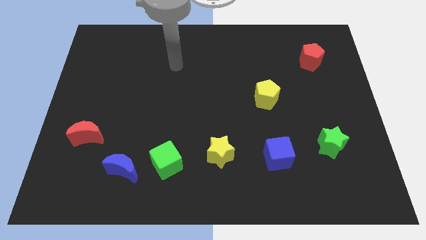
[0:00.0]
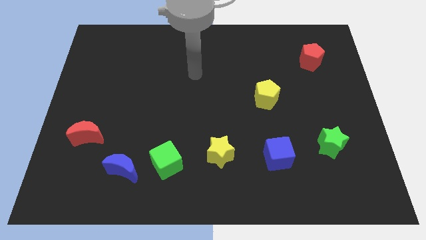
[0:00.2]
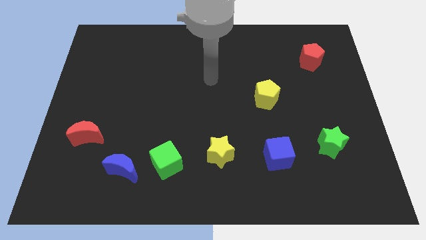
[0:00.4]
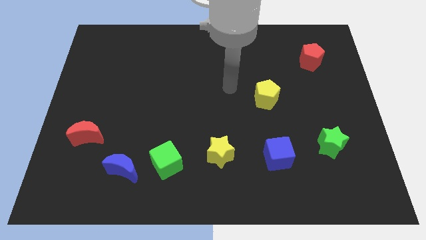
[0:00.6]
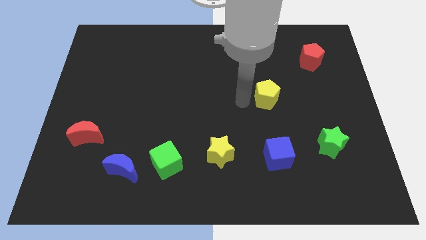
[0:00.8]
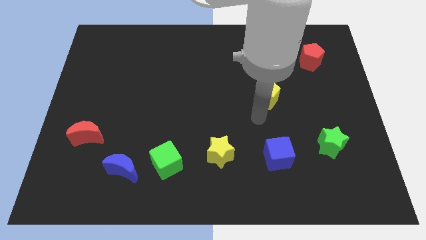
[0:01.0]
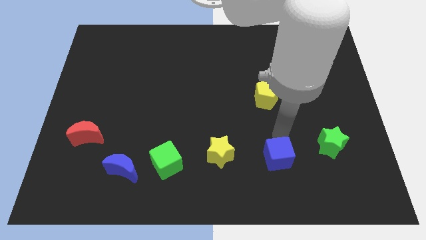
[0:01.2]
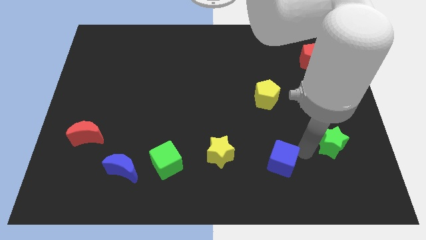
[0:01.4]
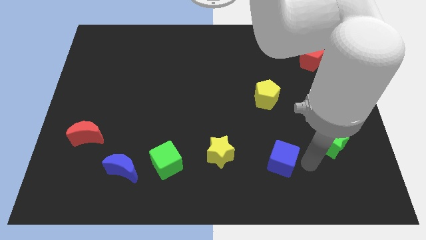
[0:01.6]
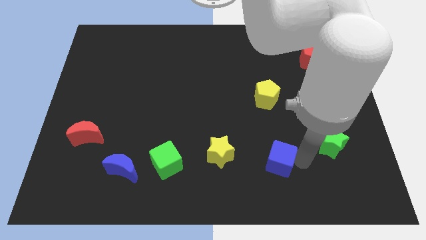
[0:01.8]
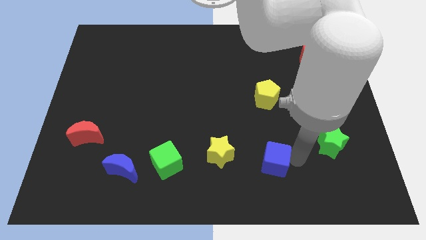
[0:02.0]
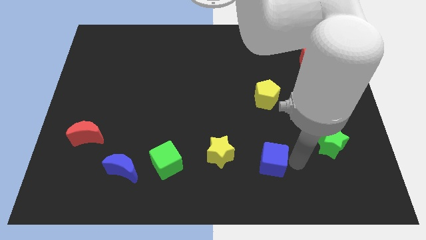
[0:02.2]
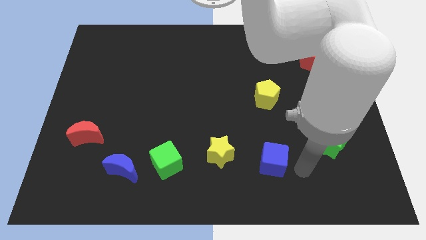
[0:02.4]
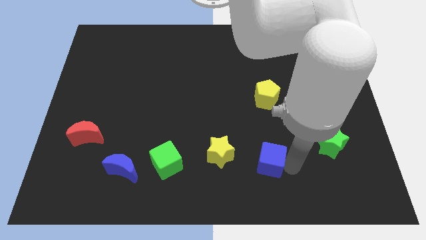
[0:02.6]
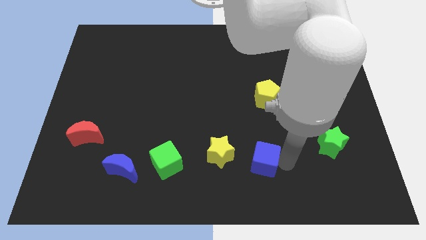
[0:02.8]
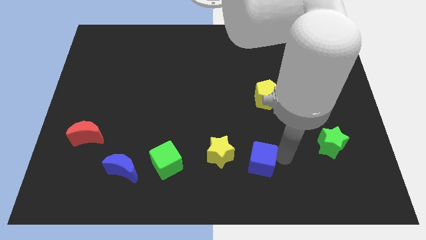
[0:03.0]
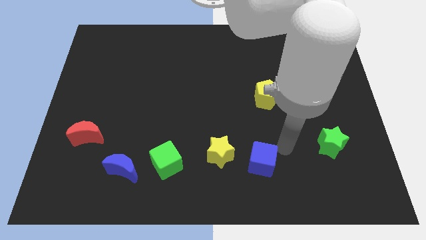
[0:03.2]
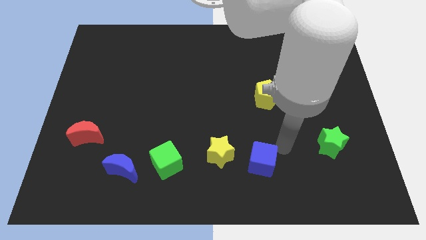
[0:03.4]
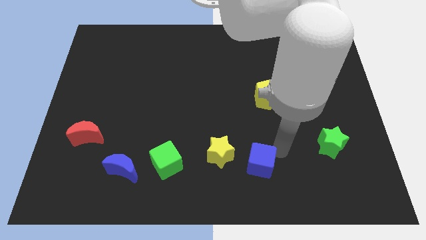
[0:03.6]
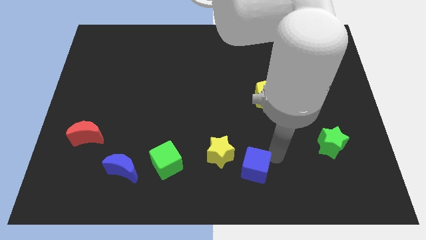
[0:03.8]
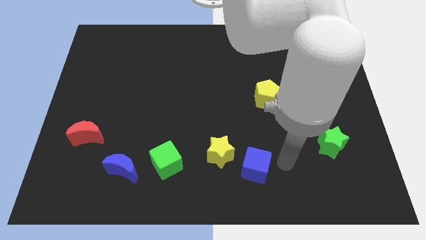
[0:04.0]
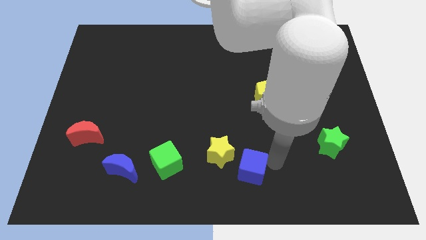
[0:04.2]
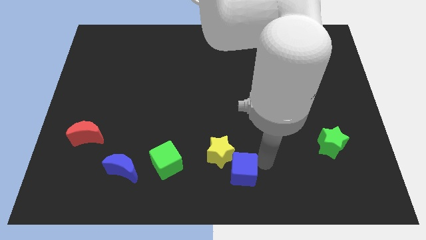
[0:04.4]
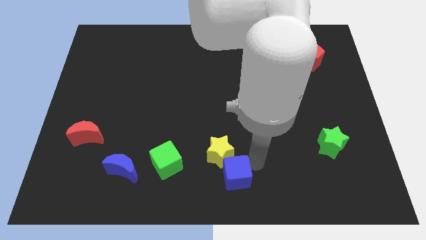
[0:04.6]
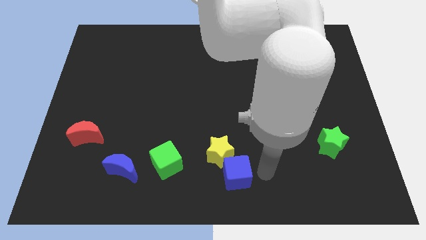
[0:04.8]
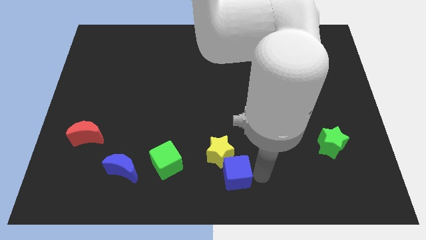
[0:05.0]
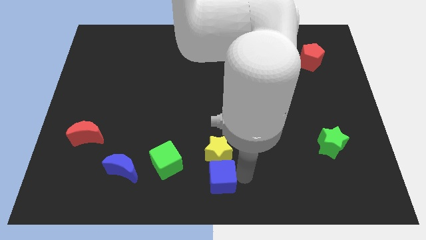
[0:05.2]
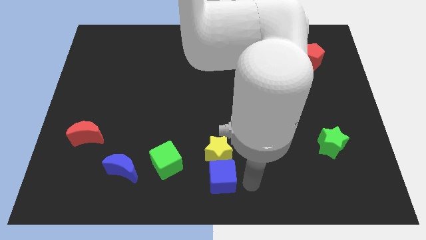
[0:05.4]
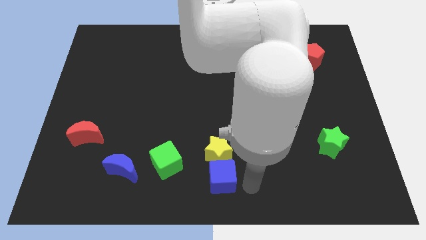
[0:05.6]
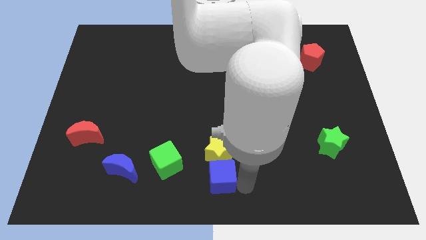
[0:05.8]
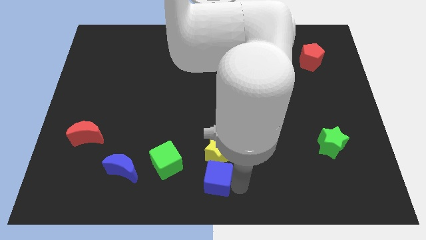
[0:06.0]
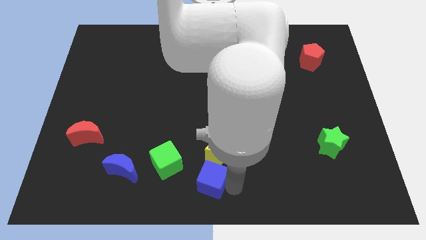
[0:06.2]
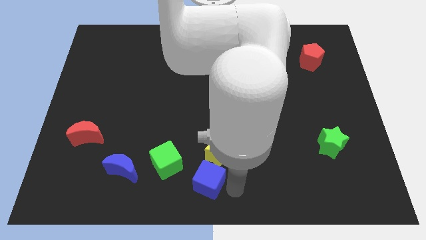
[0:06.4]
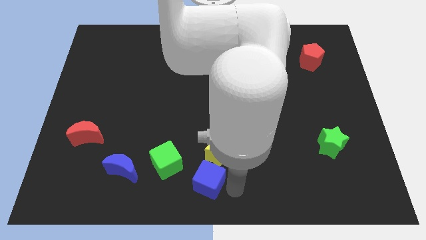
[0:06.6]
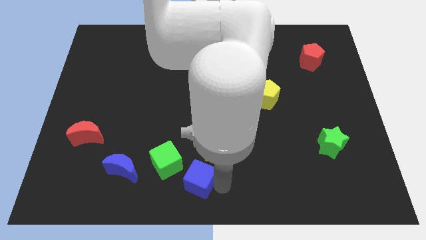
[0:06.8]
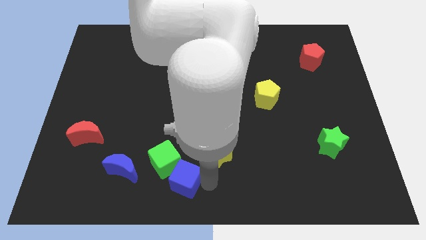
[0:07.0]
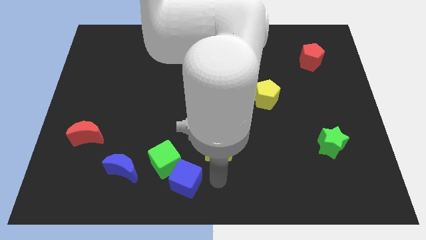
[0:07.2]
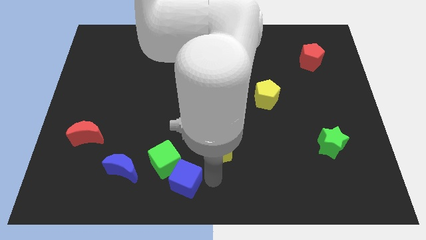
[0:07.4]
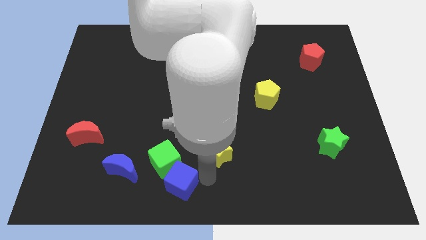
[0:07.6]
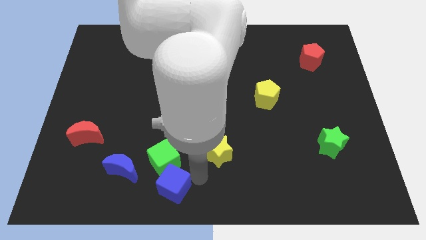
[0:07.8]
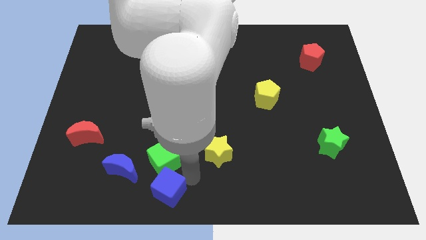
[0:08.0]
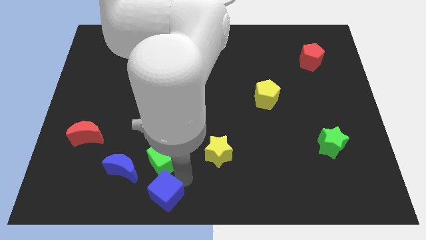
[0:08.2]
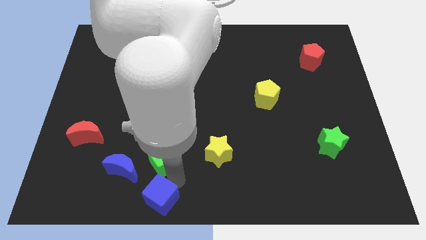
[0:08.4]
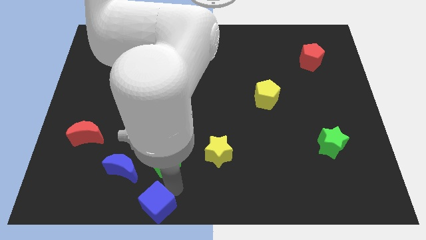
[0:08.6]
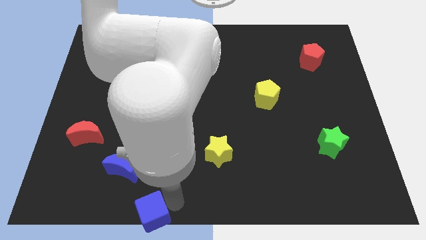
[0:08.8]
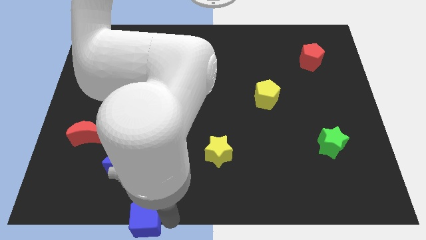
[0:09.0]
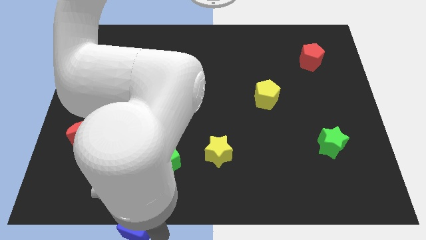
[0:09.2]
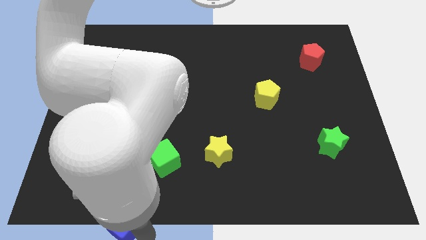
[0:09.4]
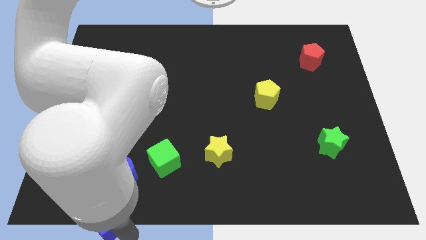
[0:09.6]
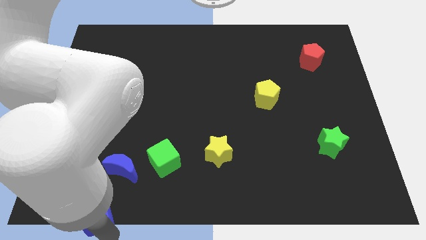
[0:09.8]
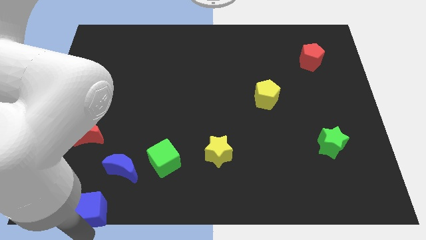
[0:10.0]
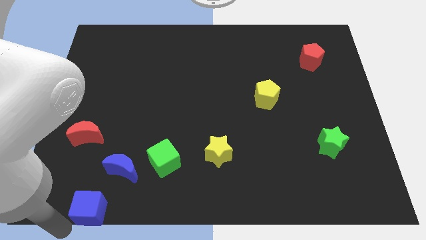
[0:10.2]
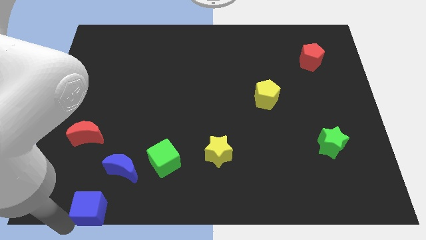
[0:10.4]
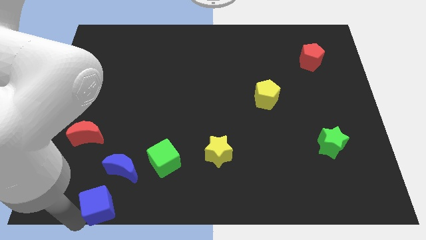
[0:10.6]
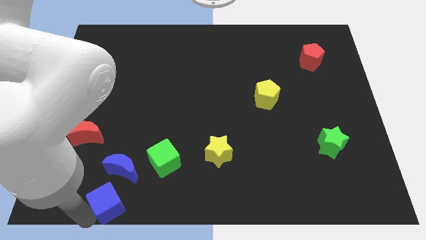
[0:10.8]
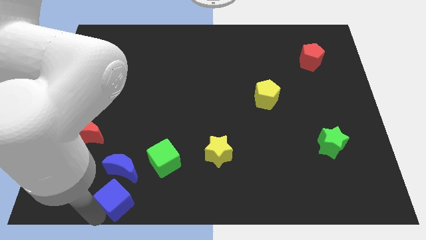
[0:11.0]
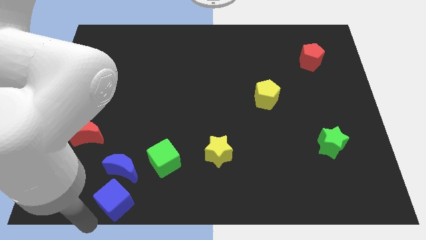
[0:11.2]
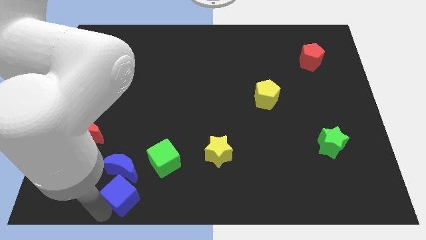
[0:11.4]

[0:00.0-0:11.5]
slide the blue cube towards the blue moon

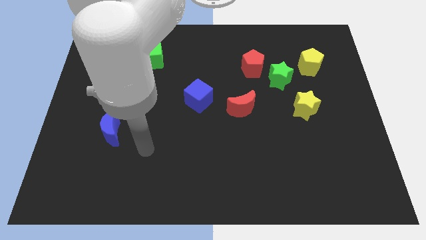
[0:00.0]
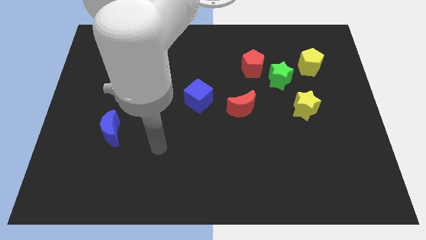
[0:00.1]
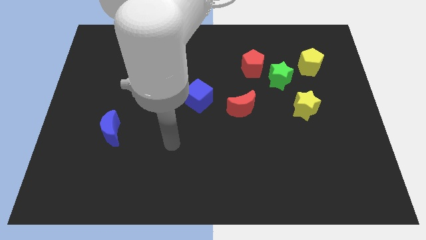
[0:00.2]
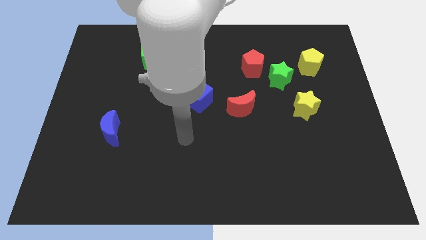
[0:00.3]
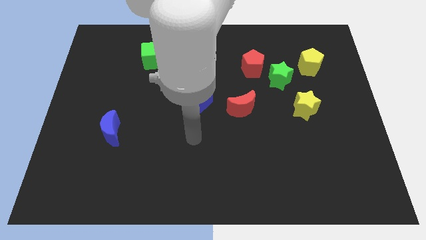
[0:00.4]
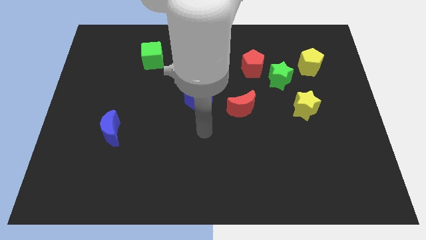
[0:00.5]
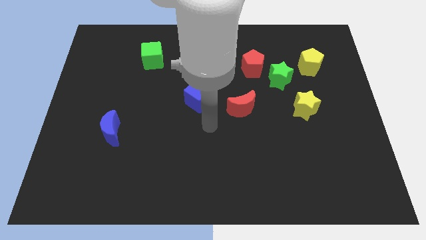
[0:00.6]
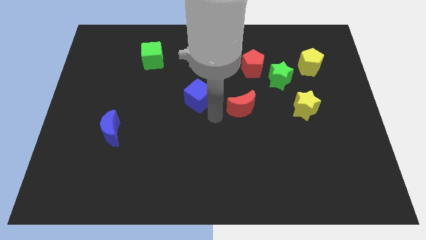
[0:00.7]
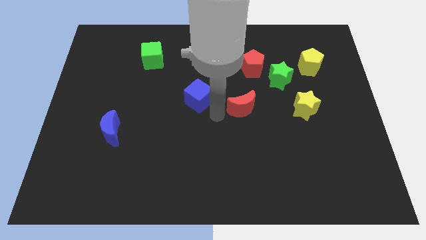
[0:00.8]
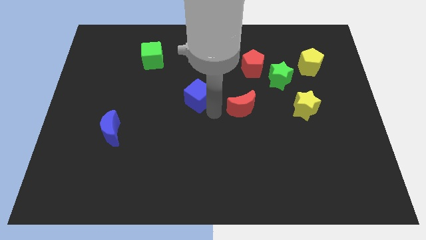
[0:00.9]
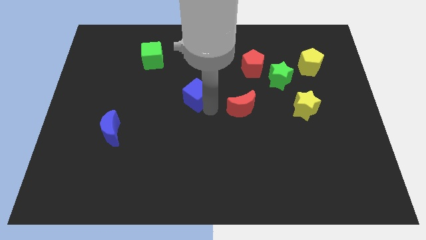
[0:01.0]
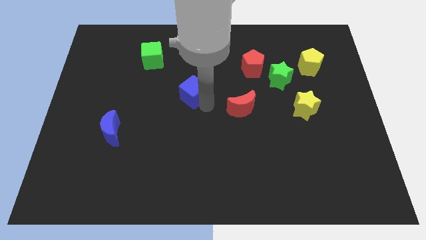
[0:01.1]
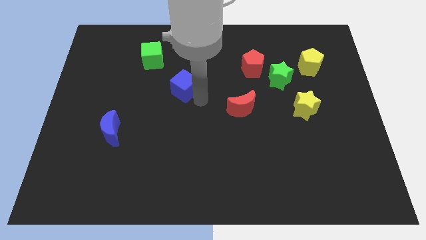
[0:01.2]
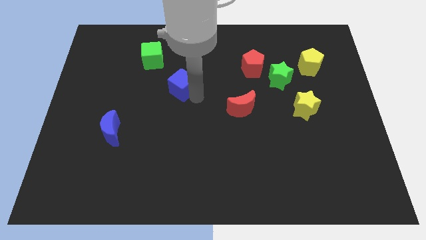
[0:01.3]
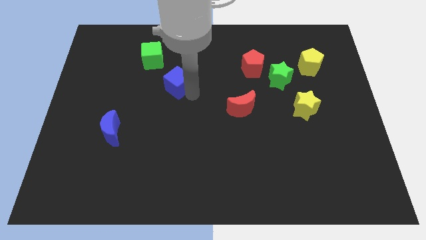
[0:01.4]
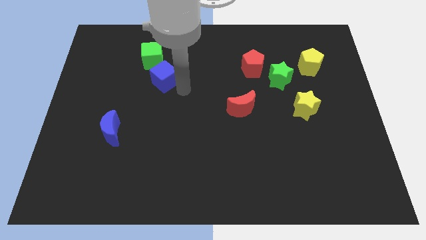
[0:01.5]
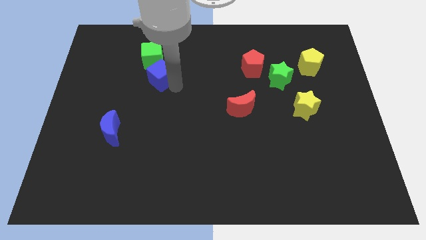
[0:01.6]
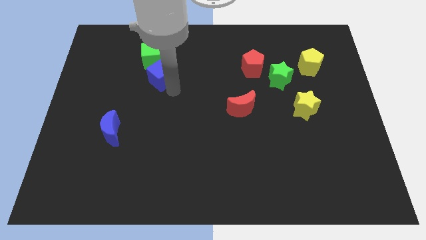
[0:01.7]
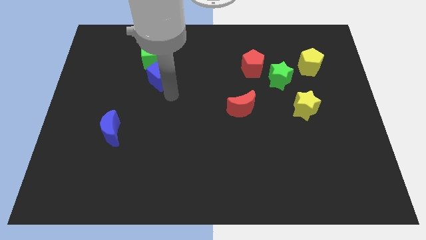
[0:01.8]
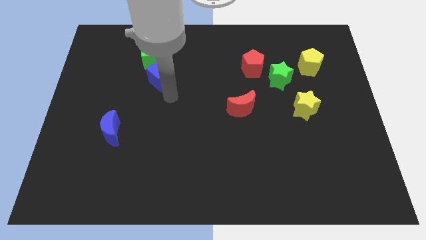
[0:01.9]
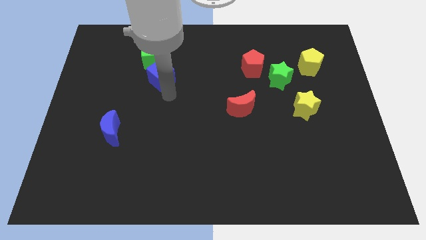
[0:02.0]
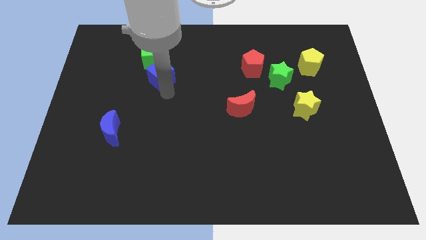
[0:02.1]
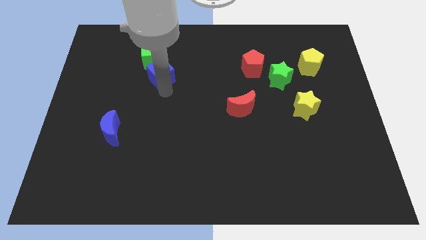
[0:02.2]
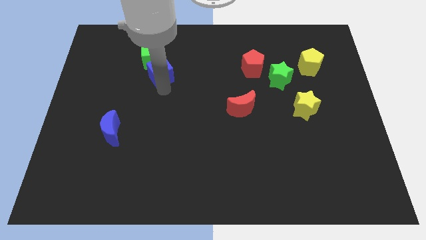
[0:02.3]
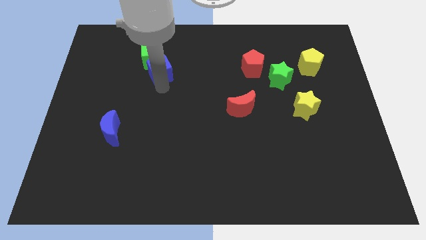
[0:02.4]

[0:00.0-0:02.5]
put the blue cube close to the green cube
